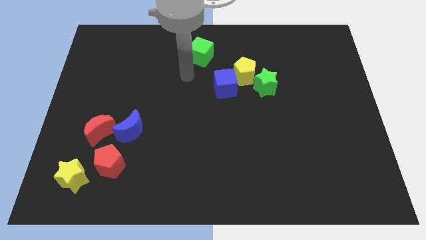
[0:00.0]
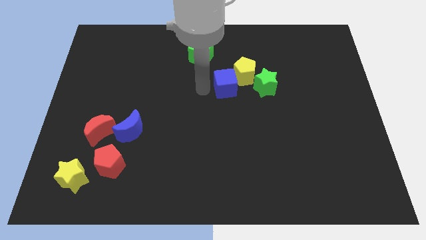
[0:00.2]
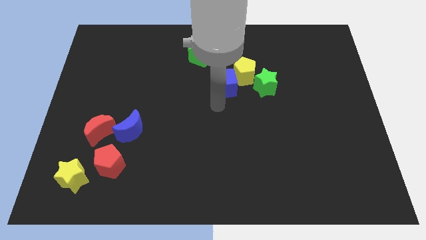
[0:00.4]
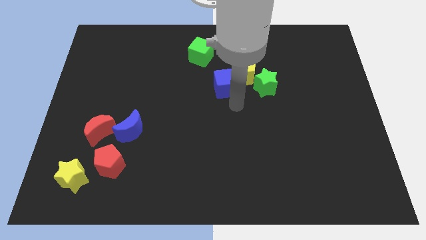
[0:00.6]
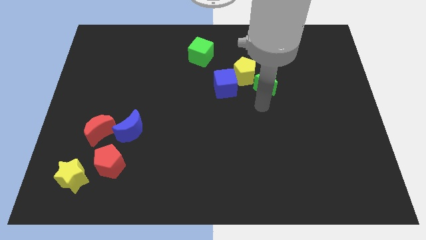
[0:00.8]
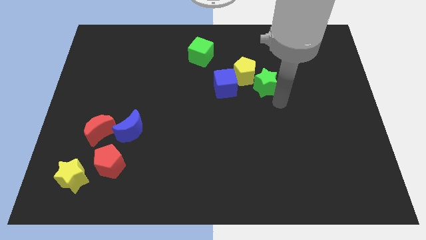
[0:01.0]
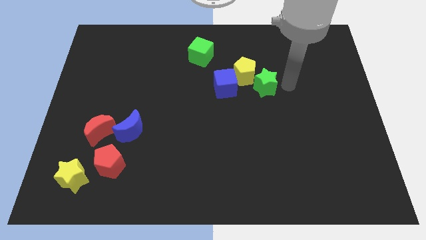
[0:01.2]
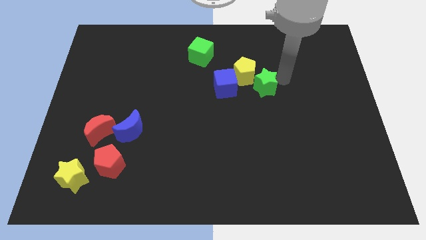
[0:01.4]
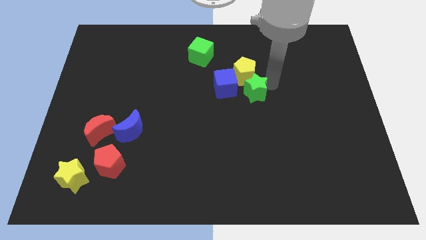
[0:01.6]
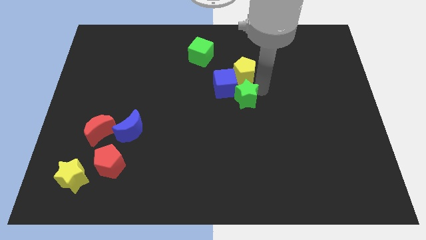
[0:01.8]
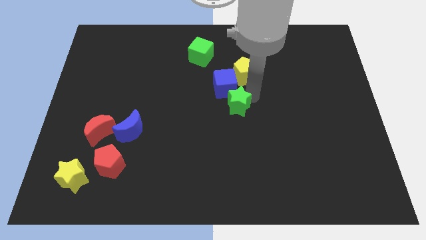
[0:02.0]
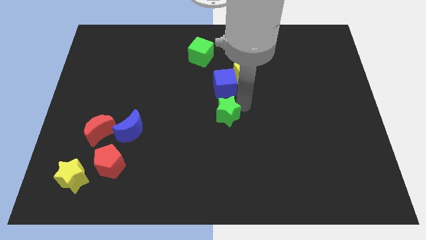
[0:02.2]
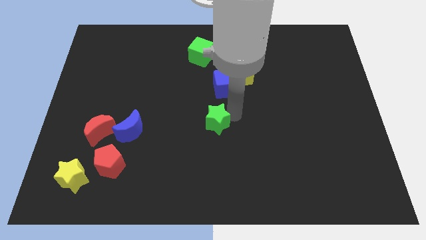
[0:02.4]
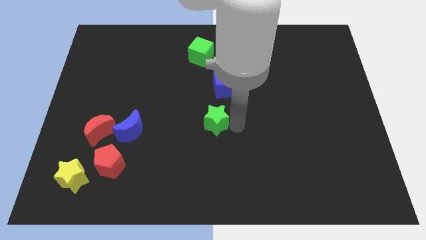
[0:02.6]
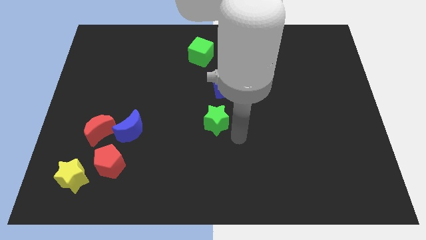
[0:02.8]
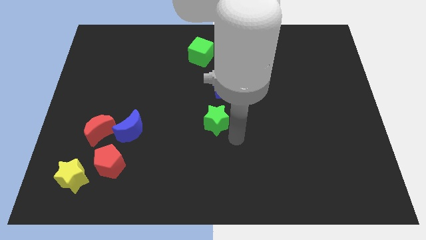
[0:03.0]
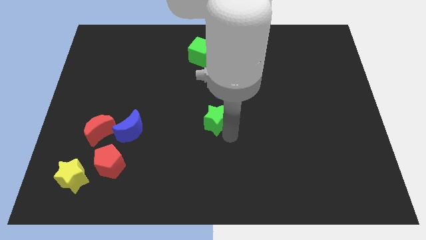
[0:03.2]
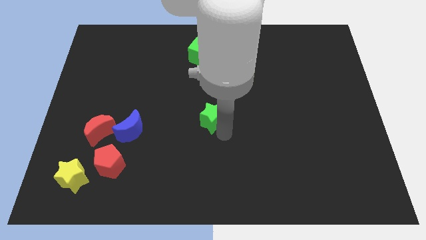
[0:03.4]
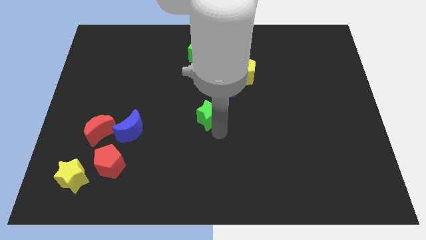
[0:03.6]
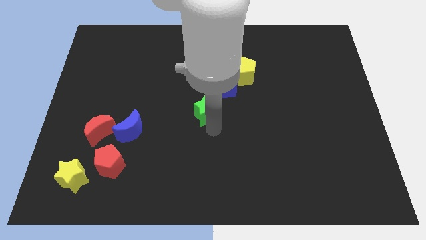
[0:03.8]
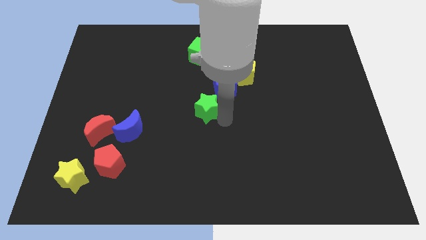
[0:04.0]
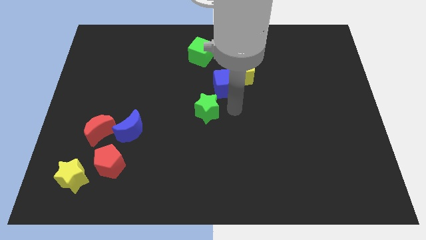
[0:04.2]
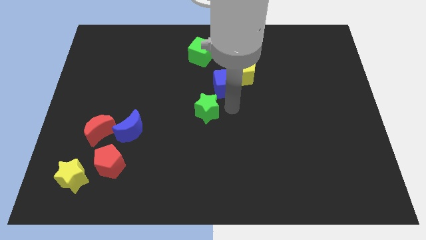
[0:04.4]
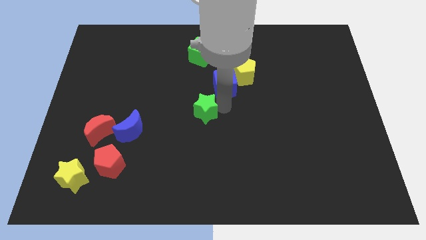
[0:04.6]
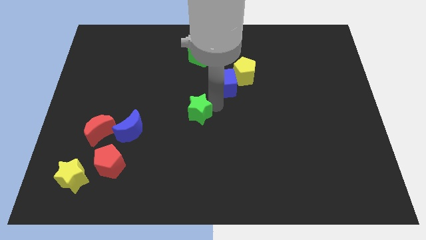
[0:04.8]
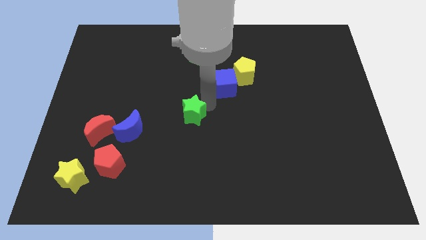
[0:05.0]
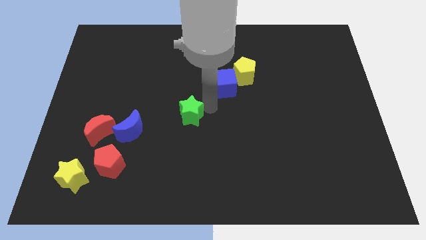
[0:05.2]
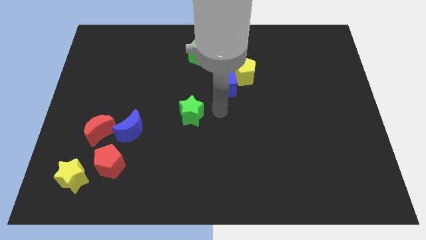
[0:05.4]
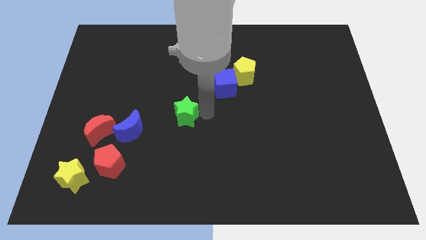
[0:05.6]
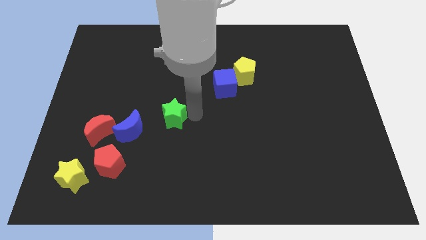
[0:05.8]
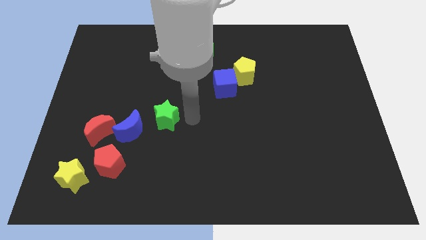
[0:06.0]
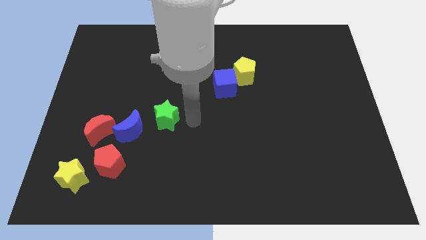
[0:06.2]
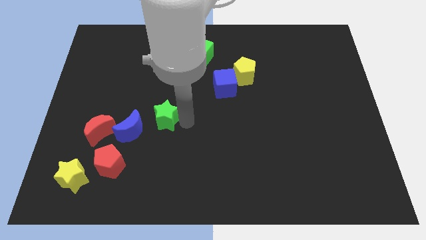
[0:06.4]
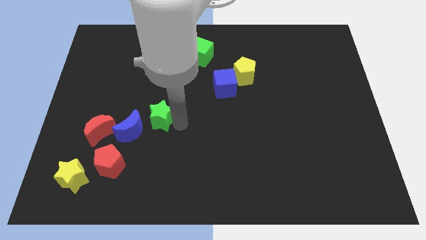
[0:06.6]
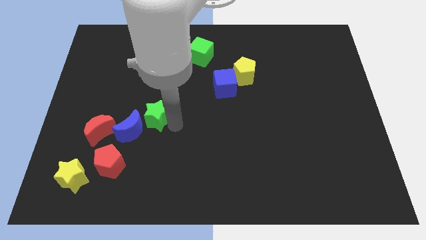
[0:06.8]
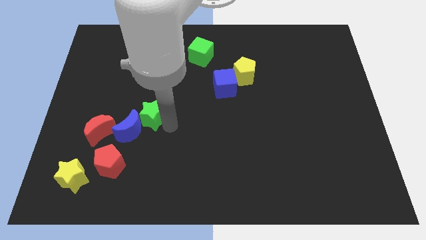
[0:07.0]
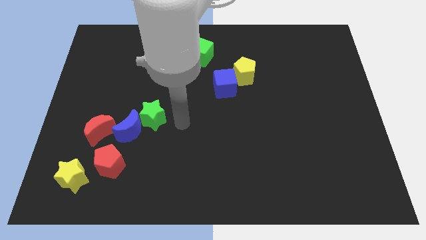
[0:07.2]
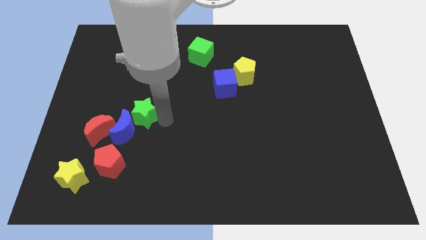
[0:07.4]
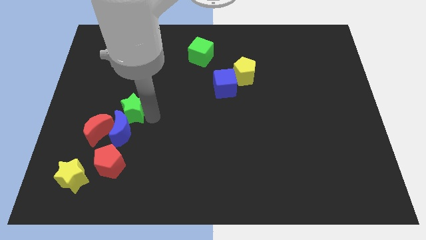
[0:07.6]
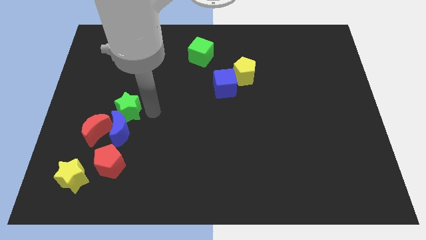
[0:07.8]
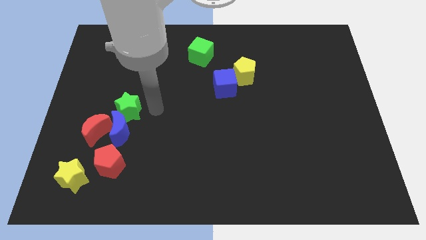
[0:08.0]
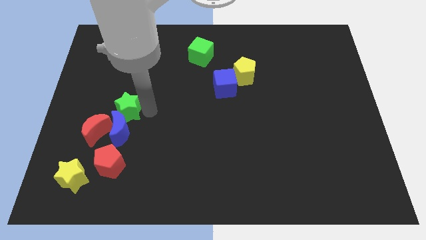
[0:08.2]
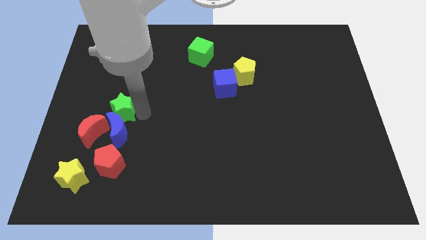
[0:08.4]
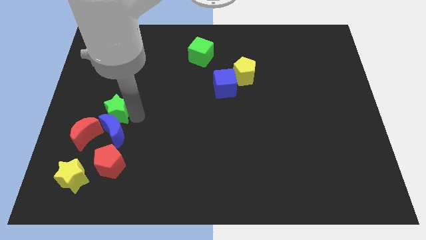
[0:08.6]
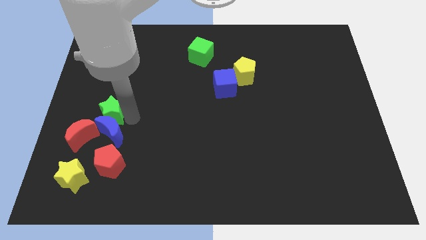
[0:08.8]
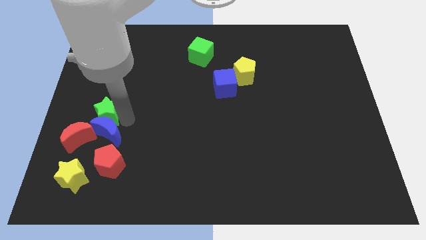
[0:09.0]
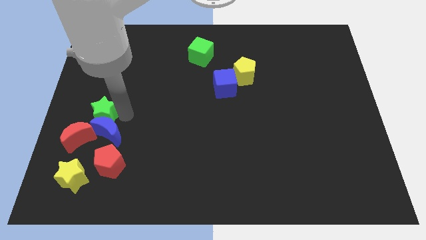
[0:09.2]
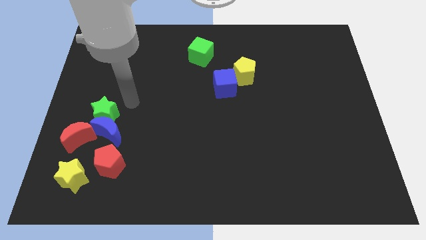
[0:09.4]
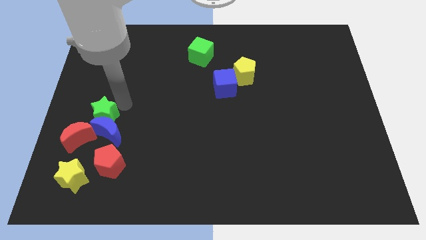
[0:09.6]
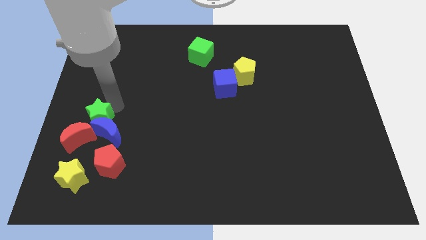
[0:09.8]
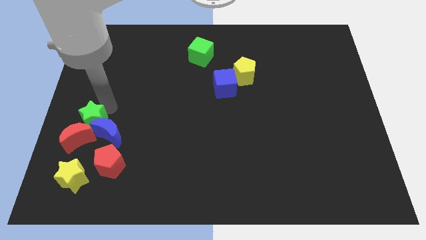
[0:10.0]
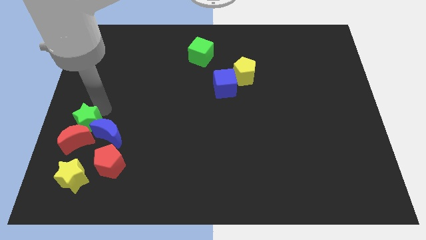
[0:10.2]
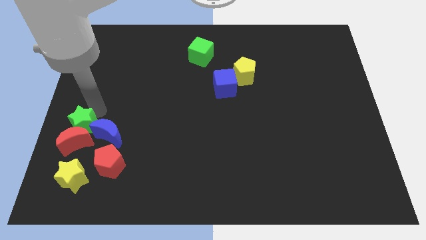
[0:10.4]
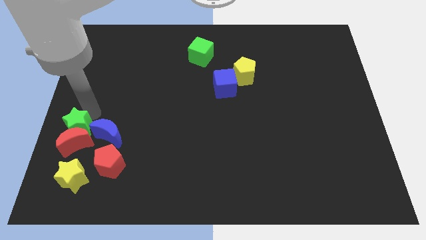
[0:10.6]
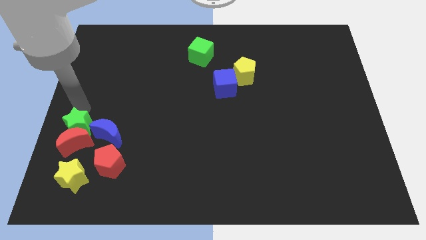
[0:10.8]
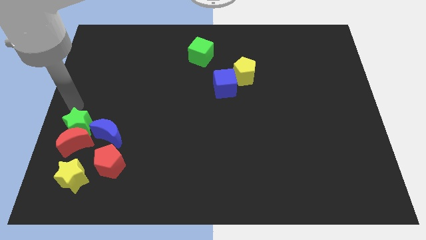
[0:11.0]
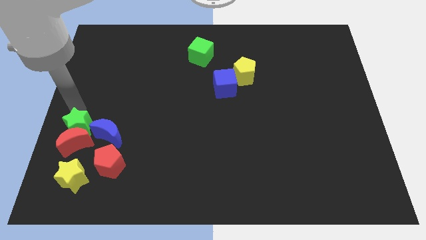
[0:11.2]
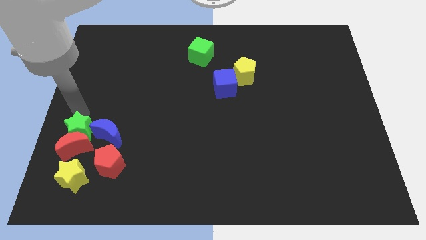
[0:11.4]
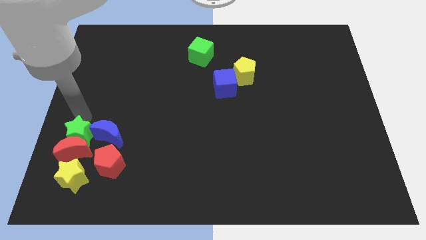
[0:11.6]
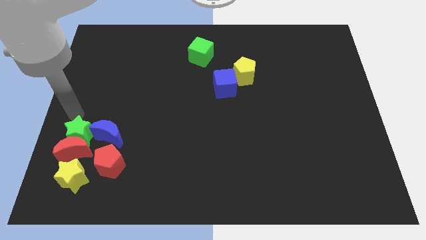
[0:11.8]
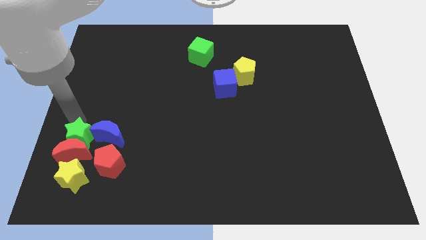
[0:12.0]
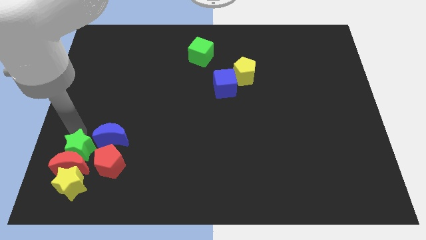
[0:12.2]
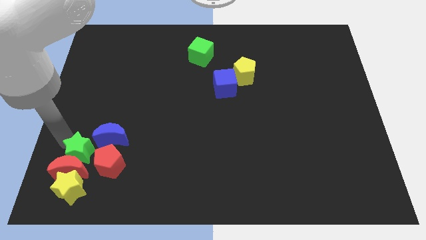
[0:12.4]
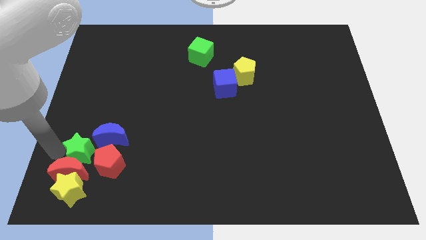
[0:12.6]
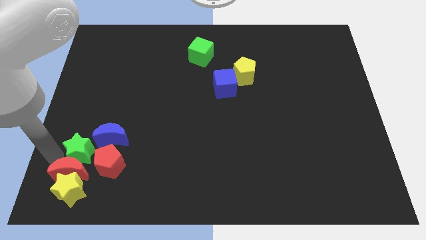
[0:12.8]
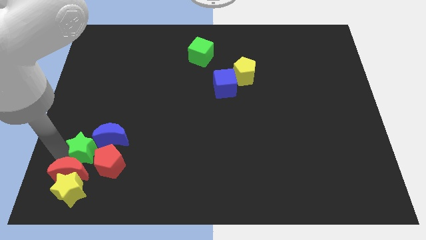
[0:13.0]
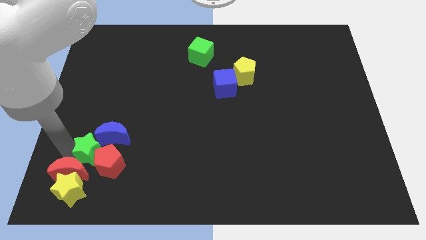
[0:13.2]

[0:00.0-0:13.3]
put the green star to the top right side of the yellow star

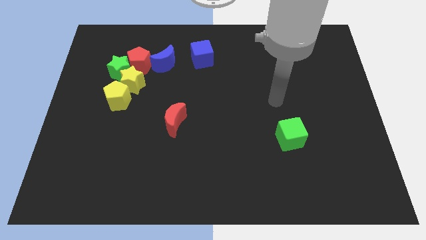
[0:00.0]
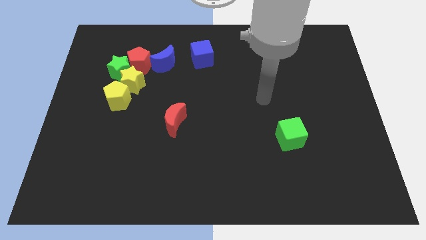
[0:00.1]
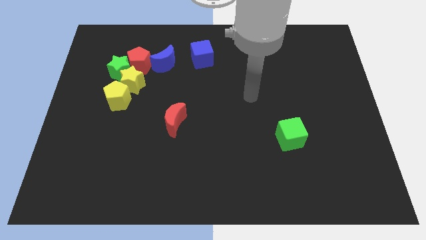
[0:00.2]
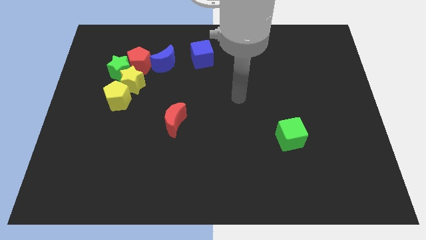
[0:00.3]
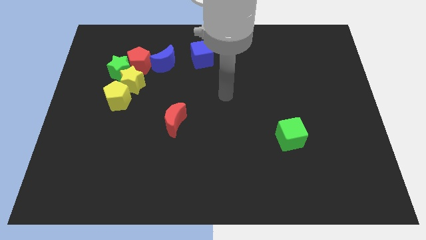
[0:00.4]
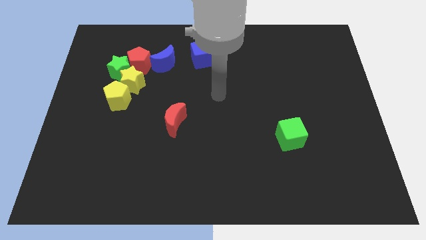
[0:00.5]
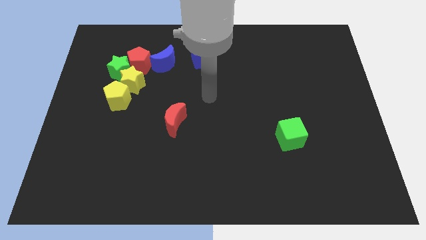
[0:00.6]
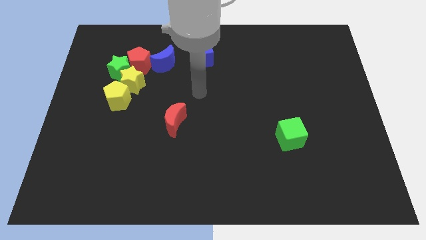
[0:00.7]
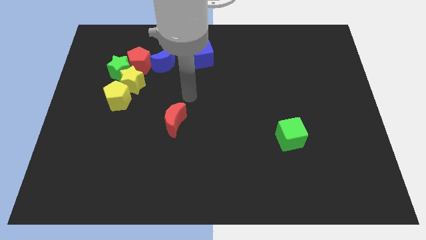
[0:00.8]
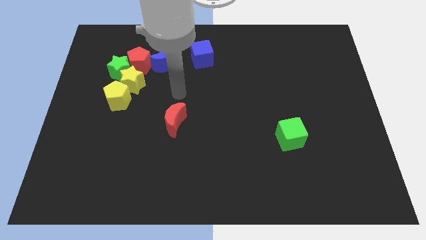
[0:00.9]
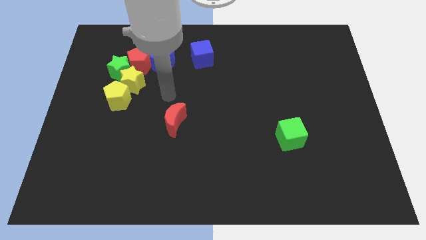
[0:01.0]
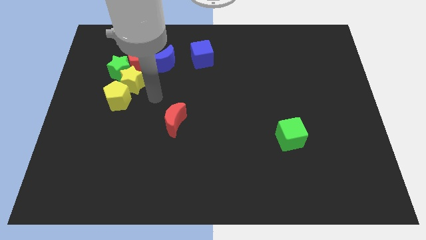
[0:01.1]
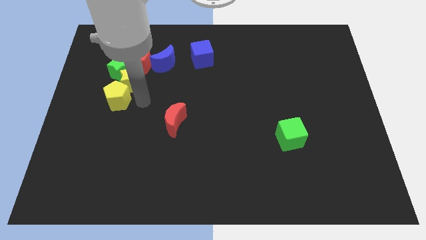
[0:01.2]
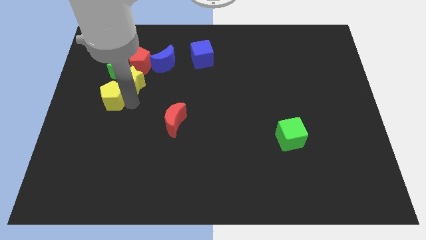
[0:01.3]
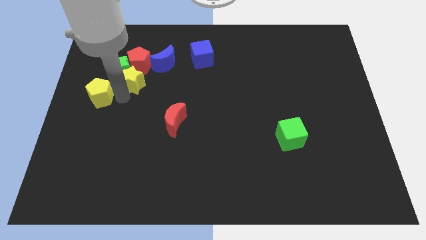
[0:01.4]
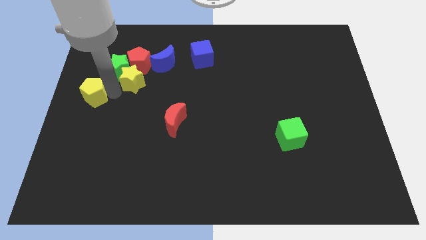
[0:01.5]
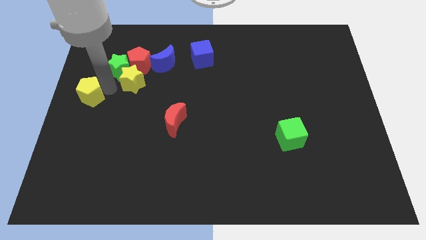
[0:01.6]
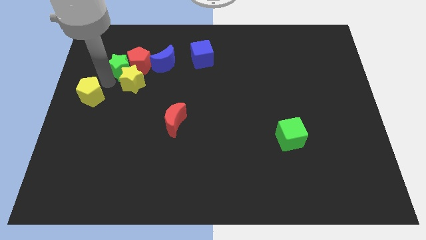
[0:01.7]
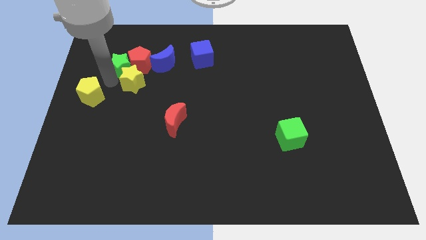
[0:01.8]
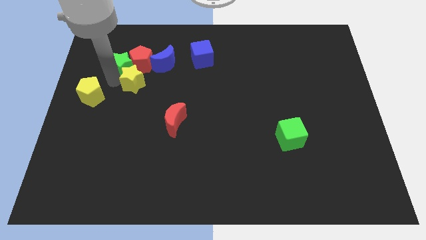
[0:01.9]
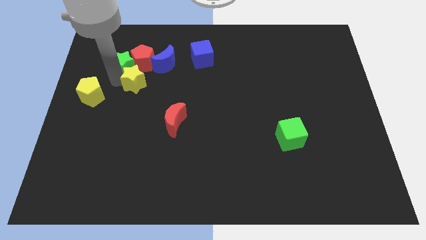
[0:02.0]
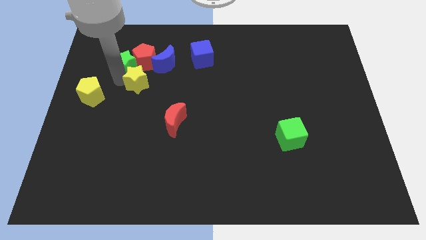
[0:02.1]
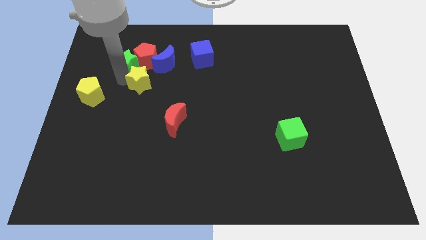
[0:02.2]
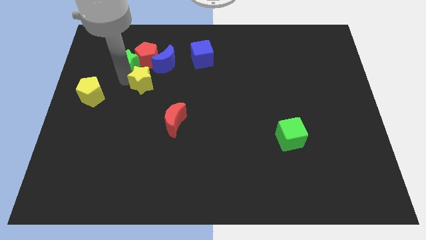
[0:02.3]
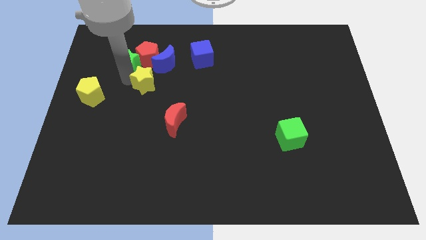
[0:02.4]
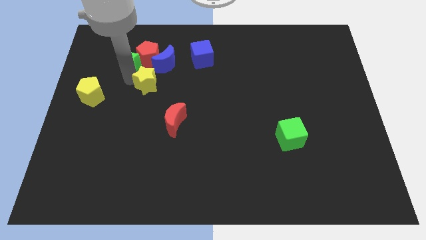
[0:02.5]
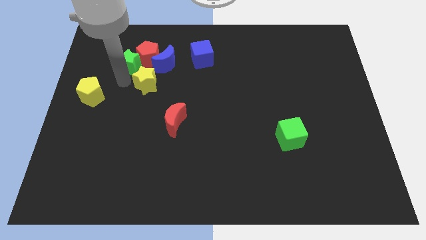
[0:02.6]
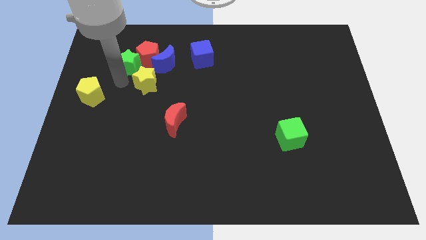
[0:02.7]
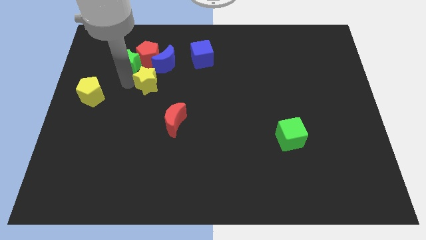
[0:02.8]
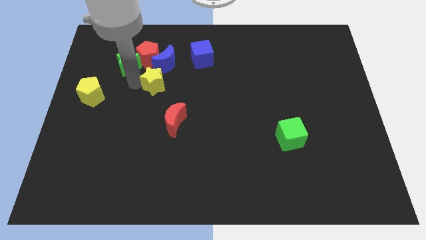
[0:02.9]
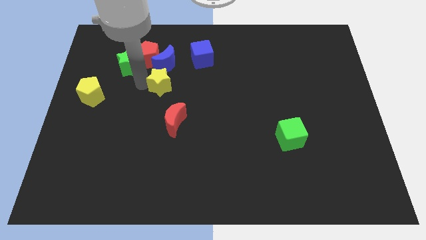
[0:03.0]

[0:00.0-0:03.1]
put the yellow star above the red moon
